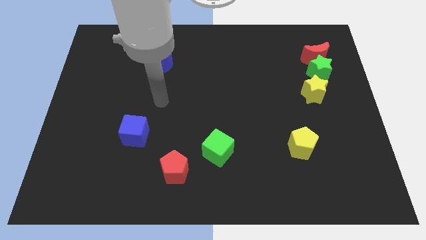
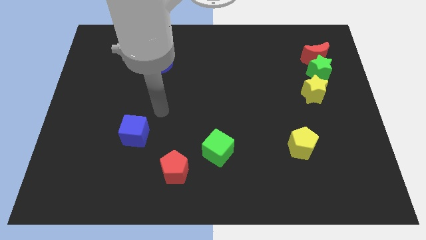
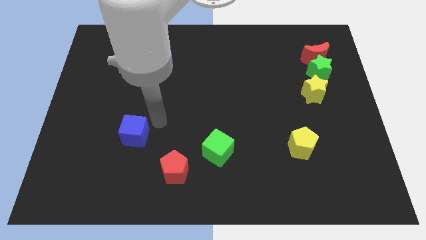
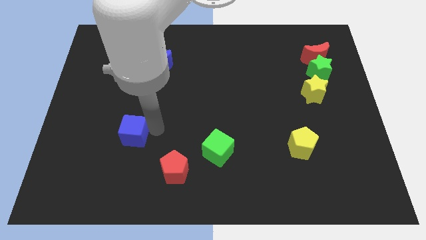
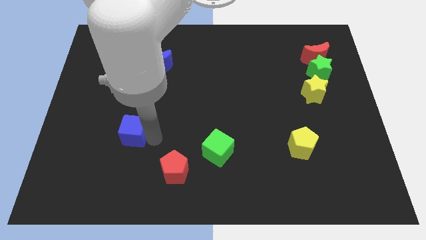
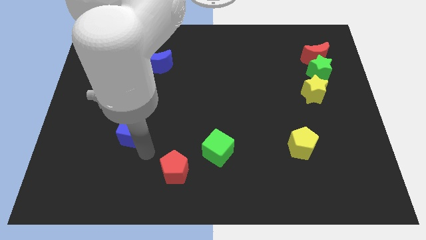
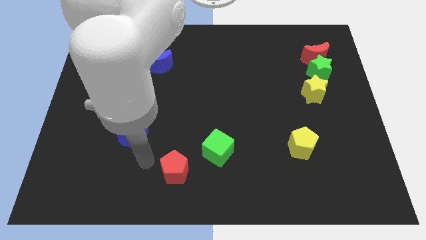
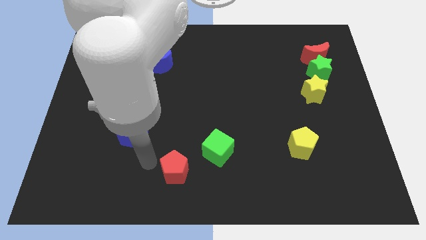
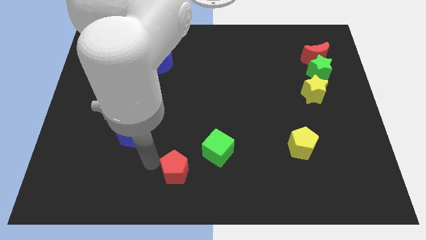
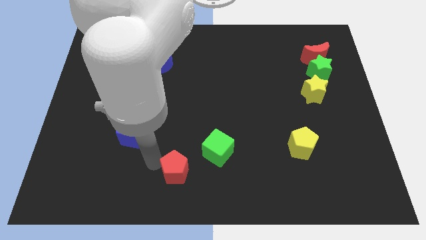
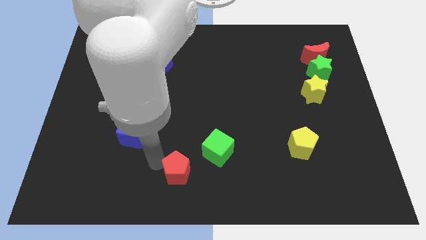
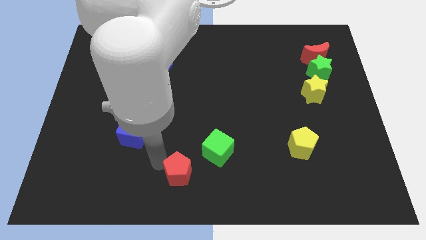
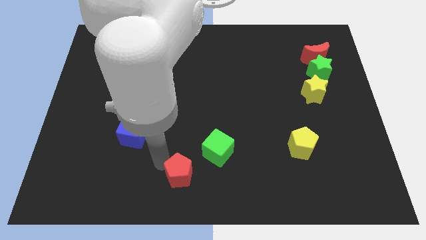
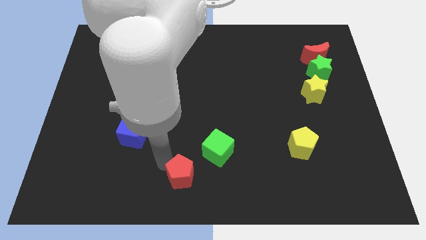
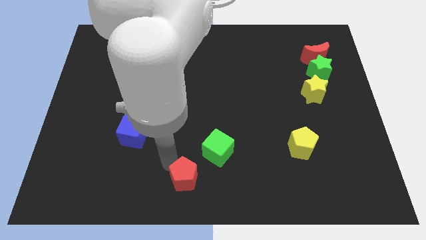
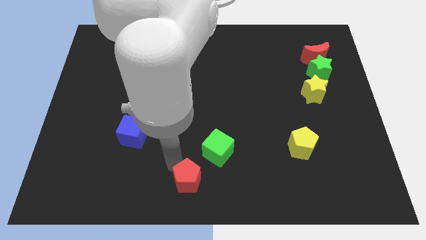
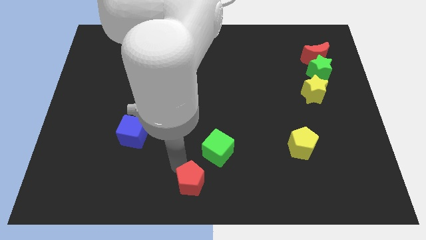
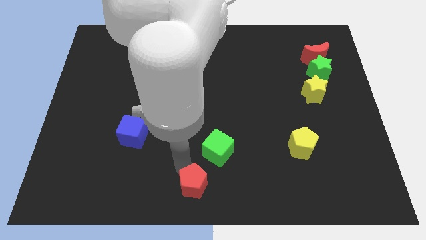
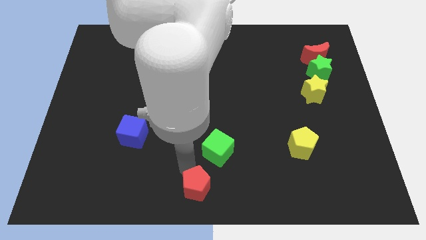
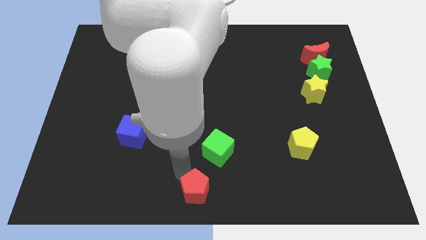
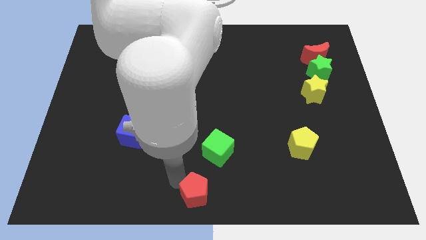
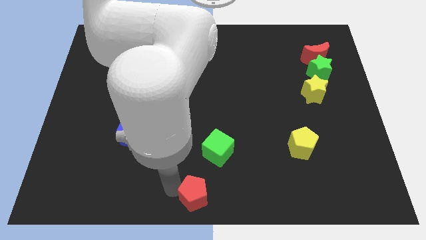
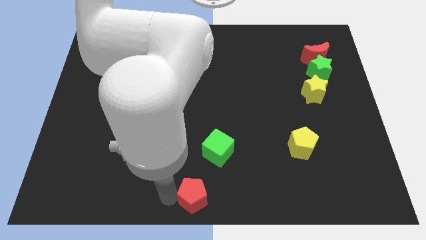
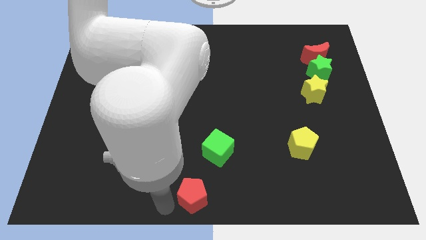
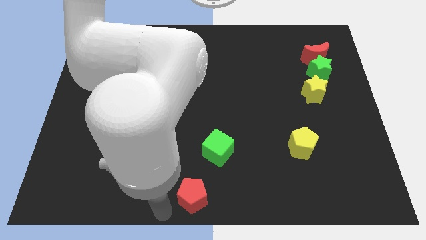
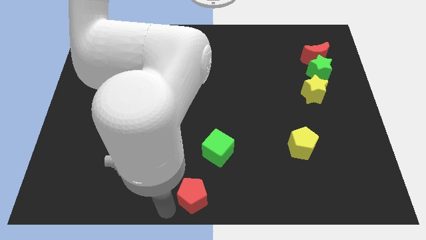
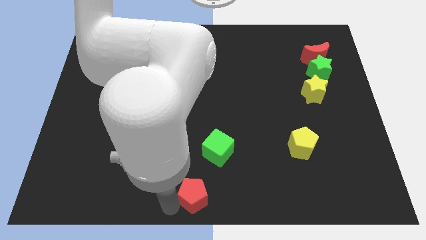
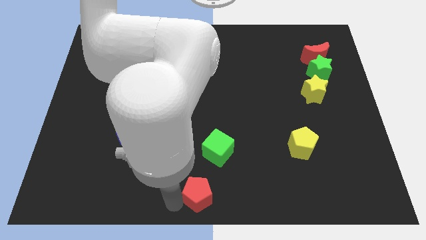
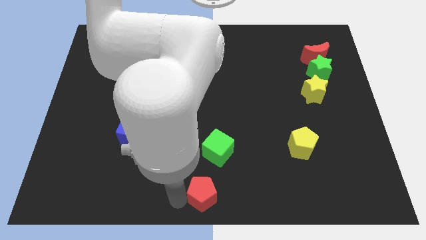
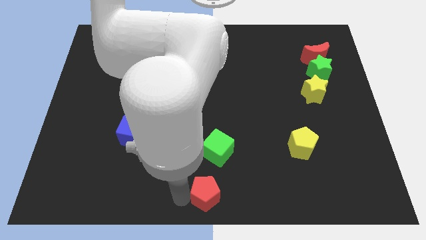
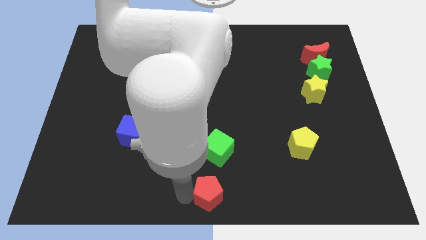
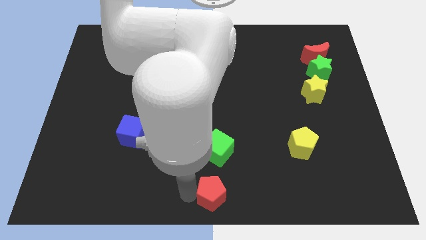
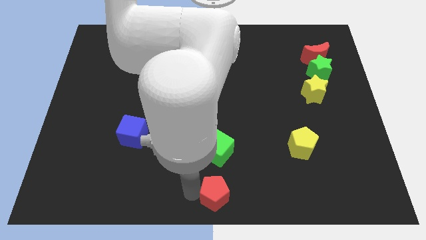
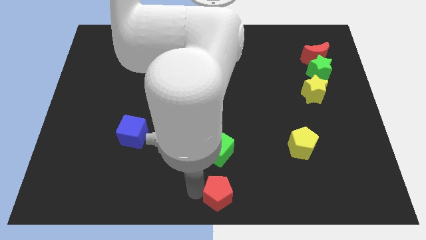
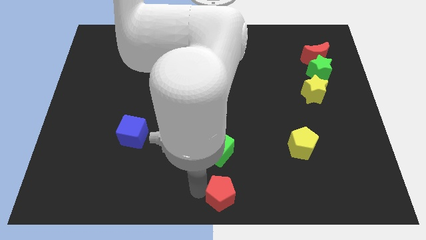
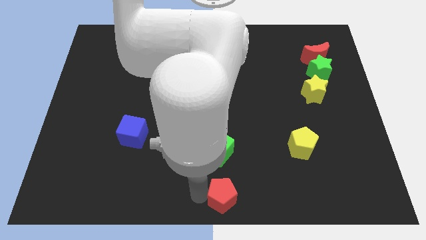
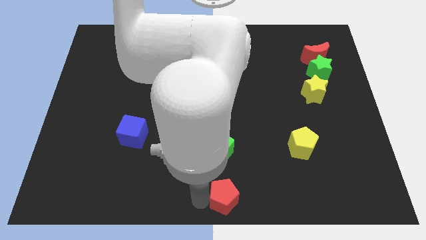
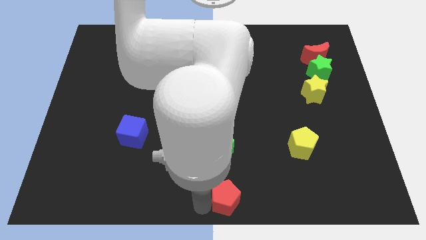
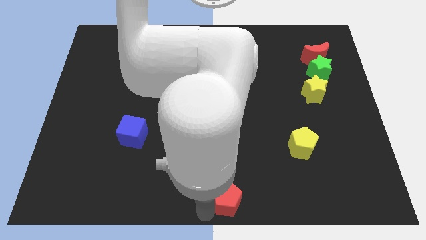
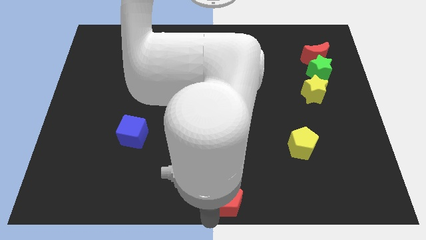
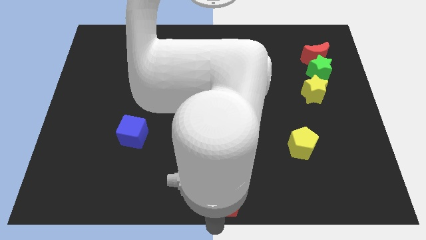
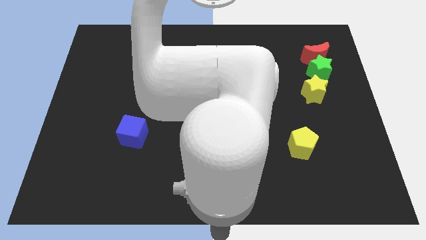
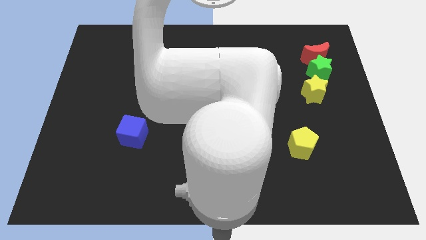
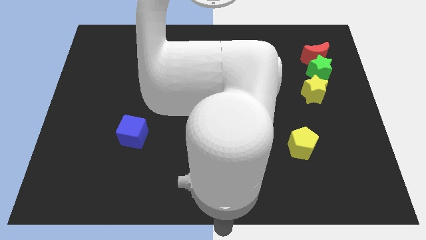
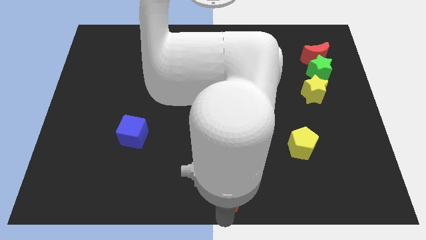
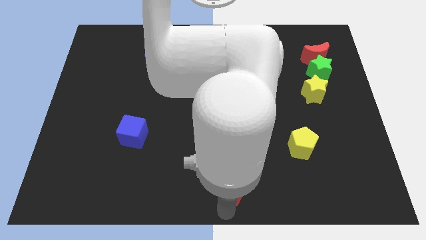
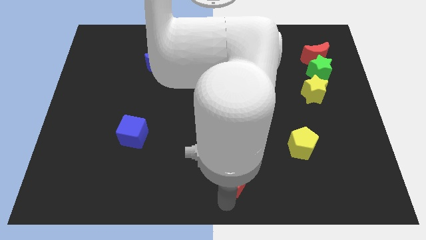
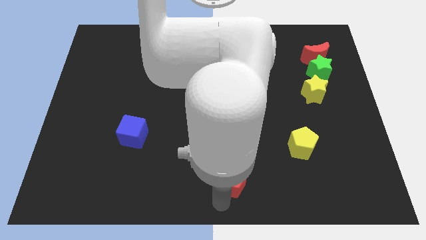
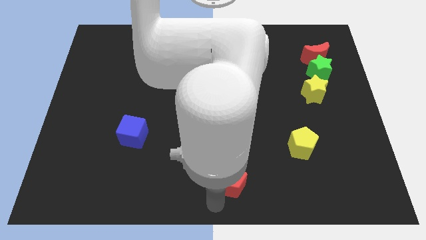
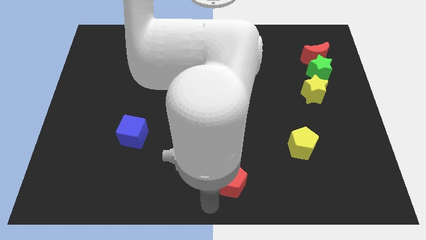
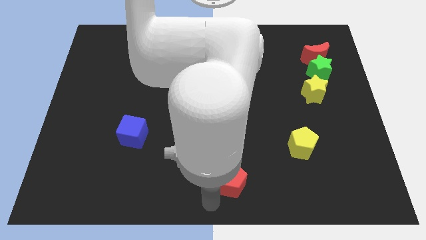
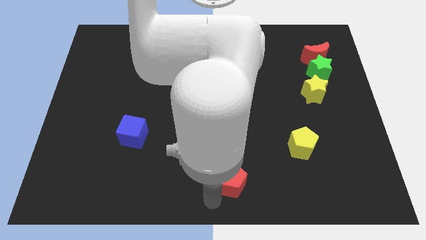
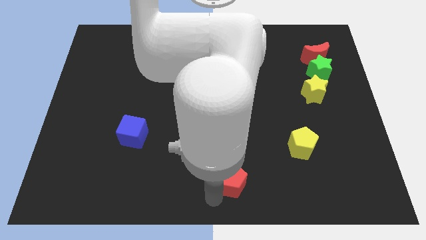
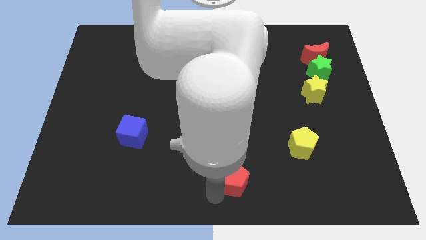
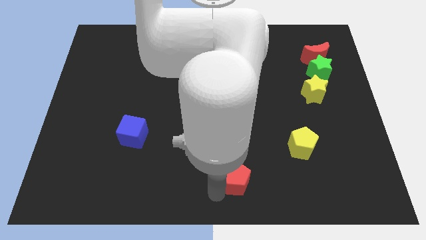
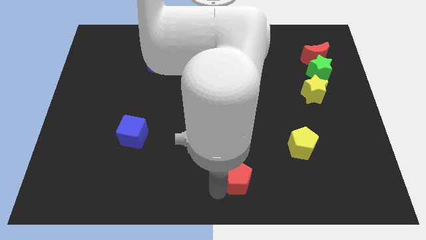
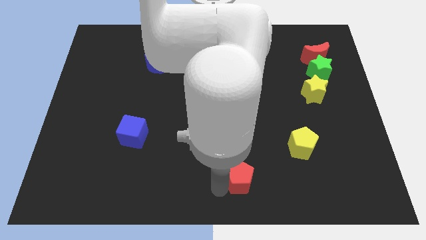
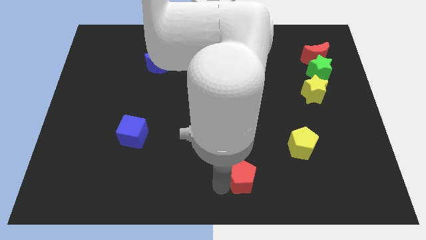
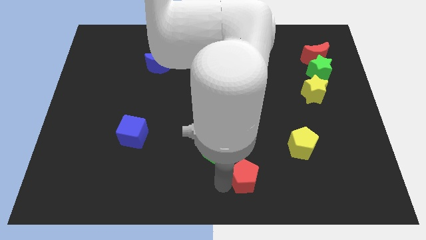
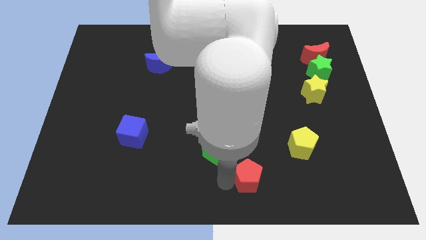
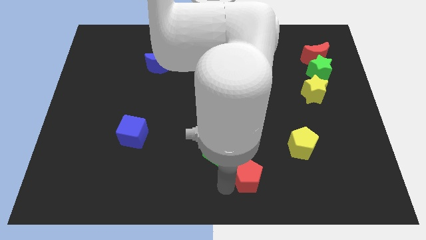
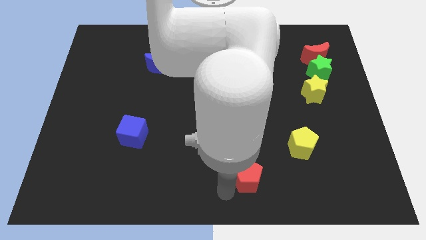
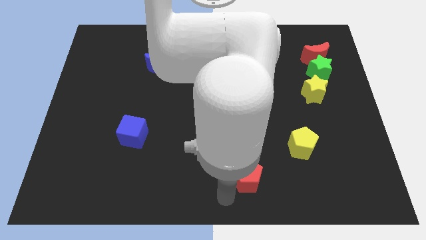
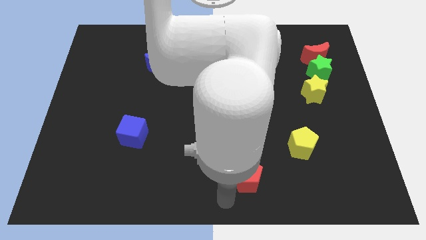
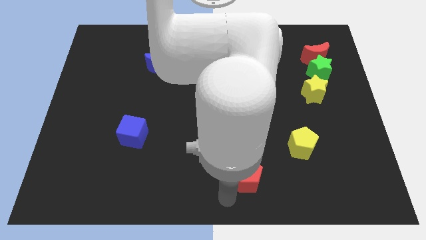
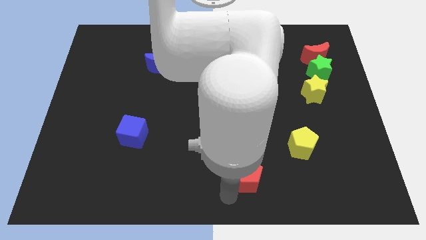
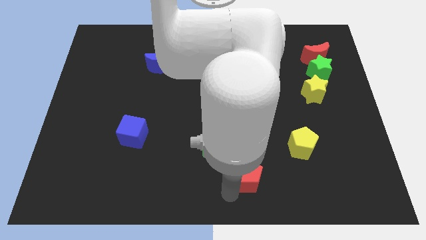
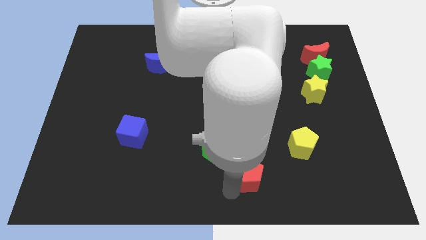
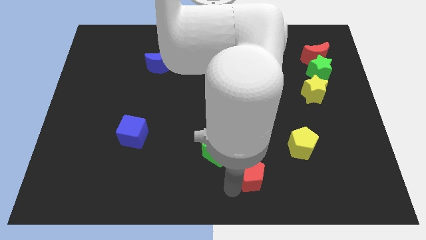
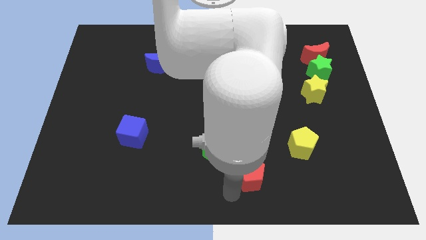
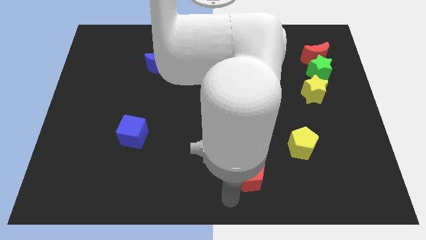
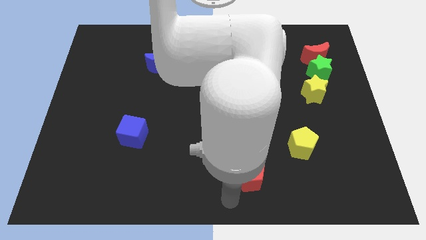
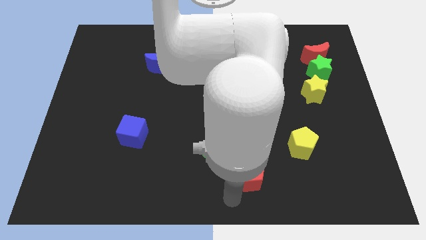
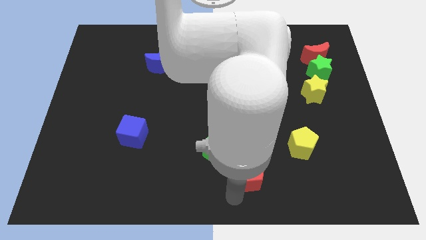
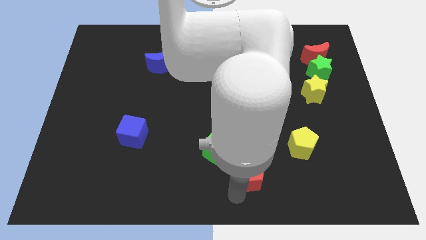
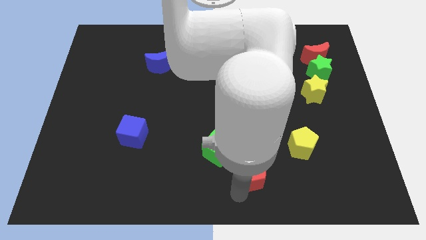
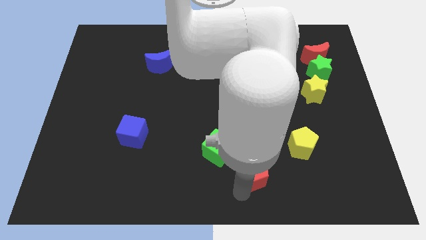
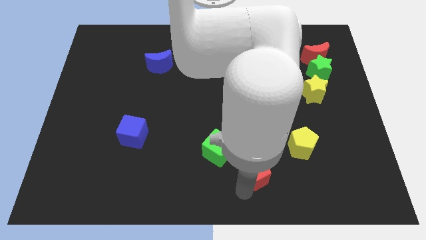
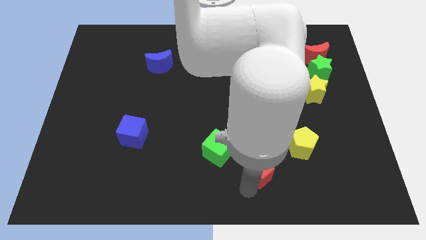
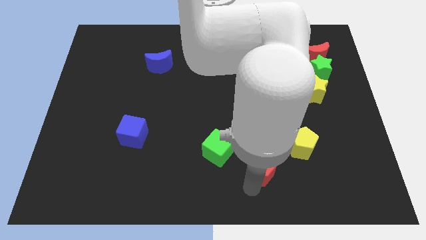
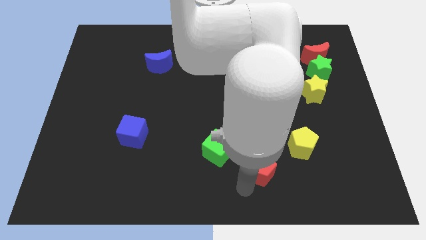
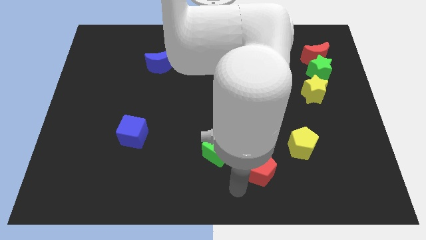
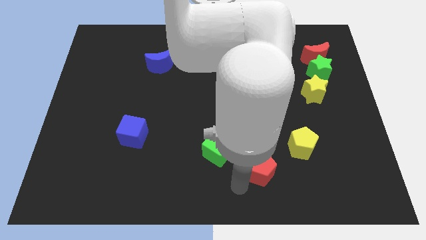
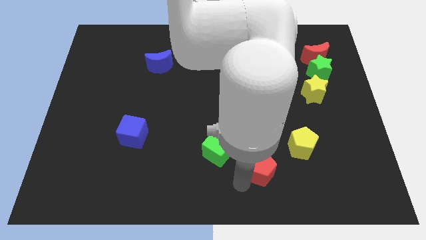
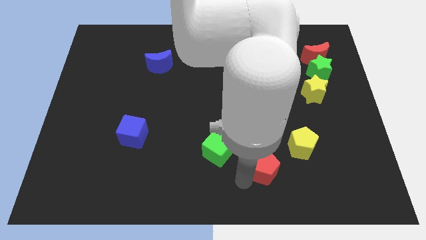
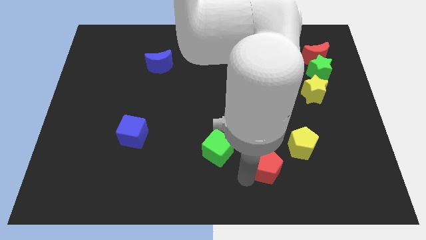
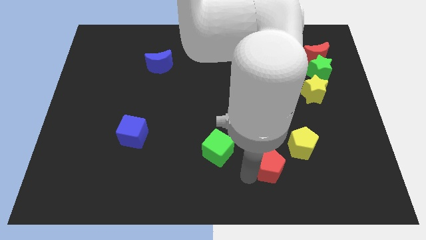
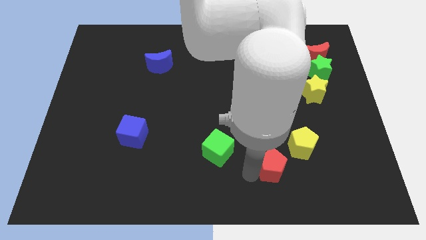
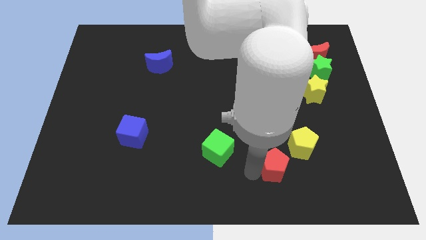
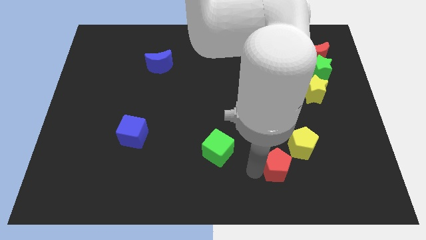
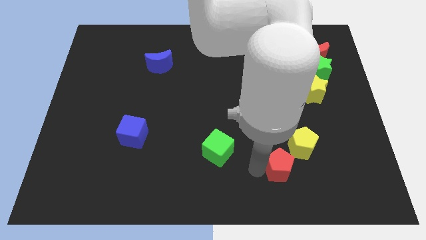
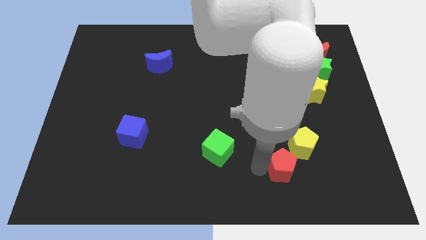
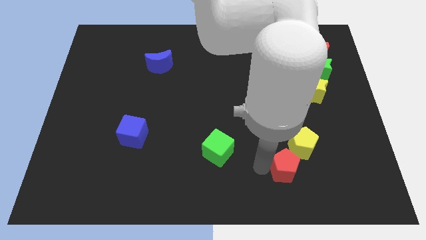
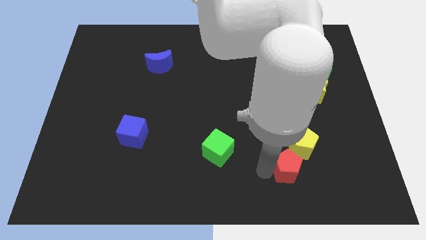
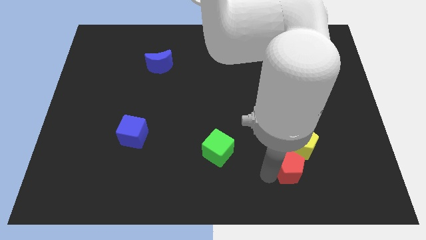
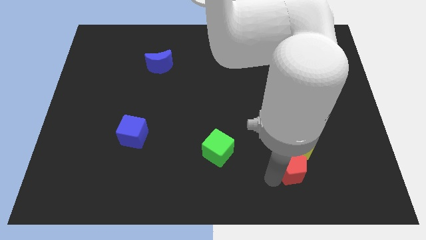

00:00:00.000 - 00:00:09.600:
put the red pentagon close to the yellow pentagon
